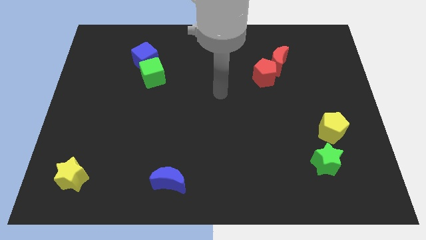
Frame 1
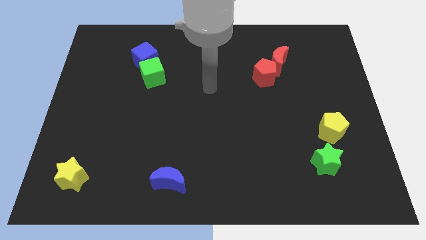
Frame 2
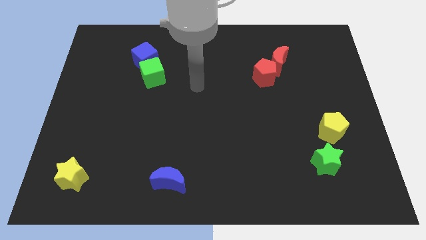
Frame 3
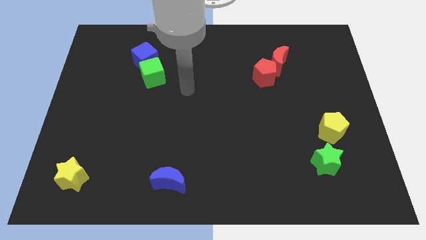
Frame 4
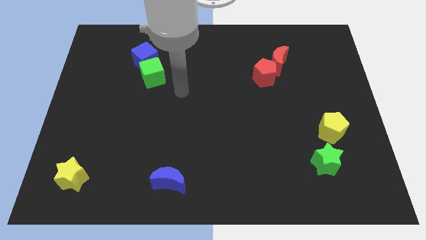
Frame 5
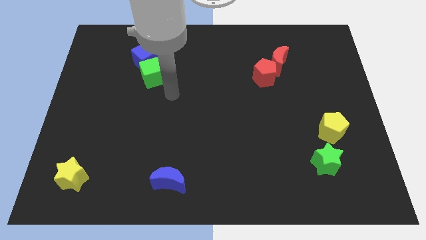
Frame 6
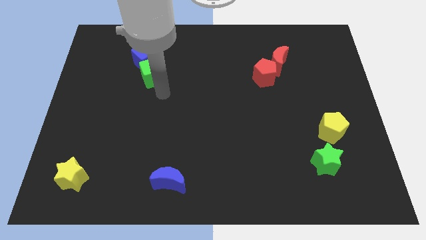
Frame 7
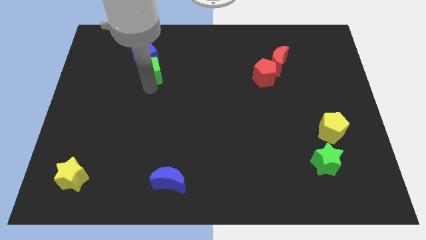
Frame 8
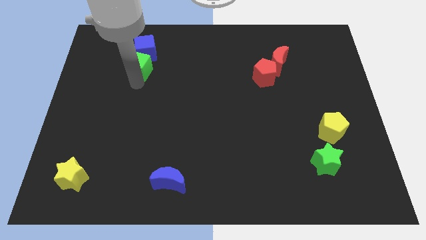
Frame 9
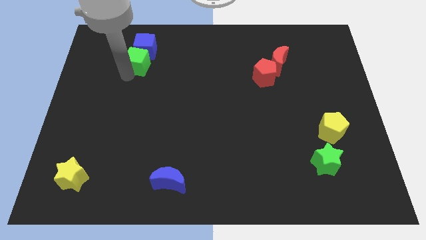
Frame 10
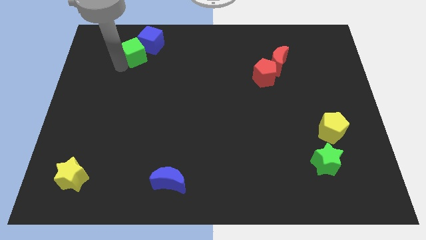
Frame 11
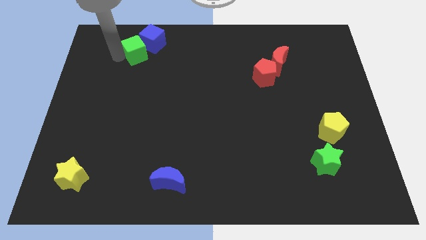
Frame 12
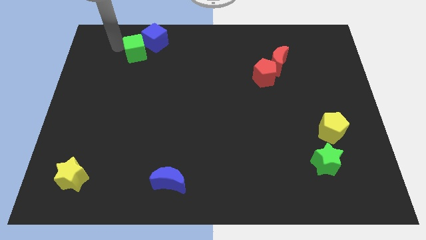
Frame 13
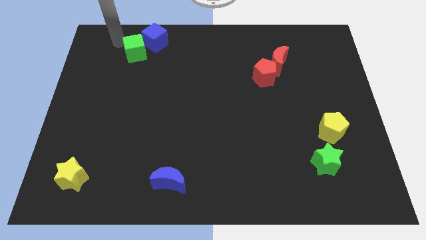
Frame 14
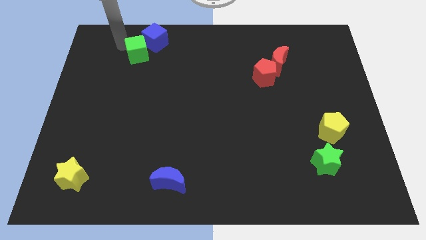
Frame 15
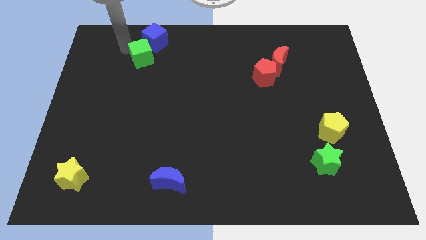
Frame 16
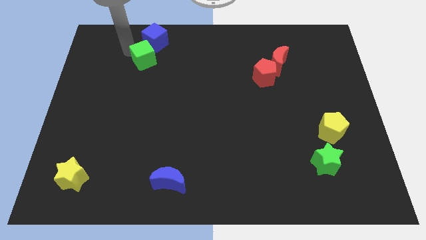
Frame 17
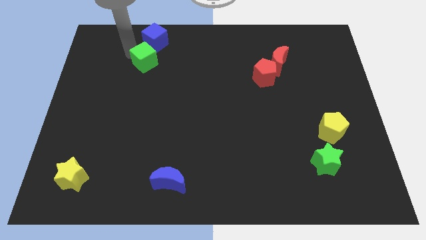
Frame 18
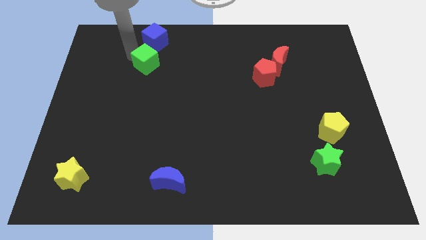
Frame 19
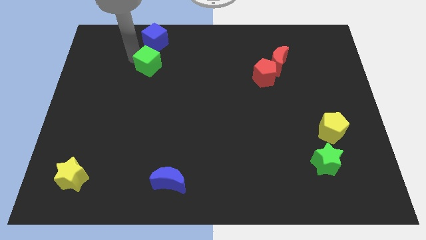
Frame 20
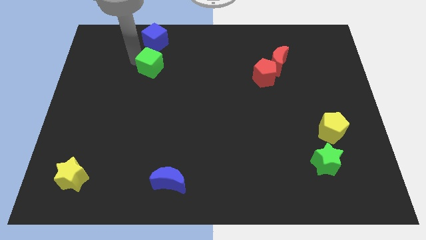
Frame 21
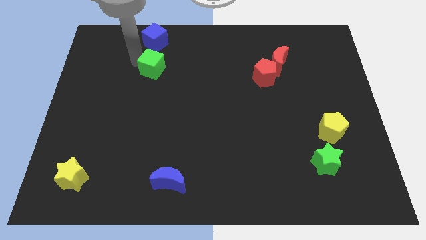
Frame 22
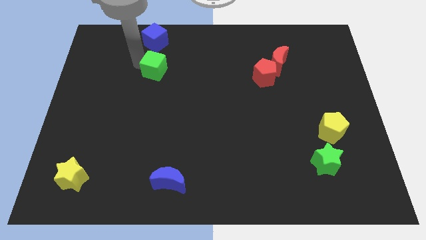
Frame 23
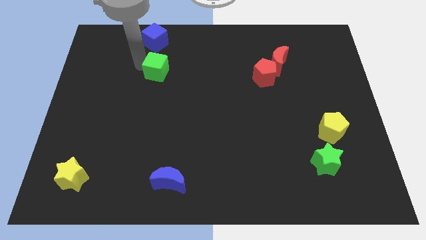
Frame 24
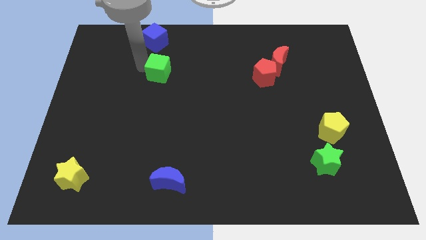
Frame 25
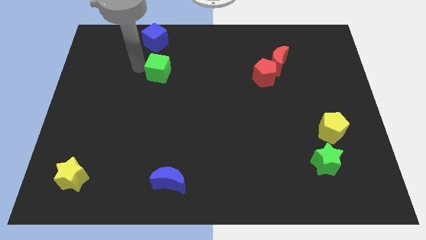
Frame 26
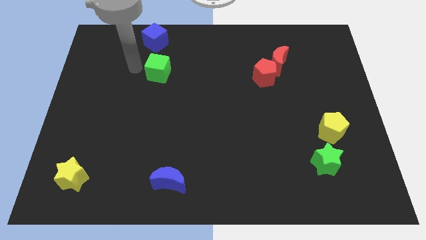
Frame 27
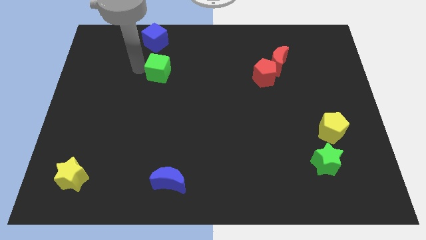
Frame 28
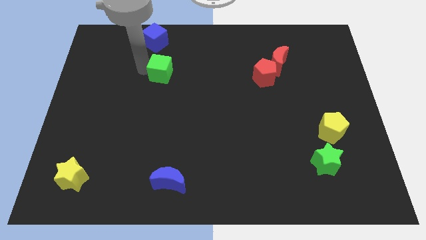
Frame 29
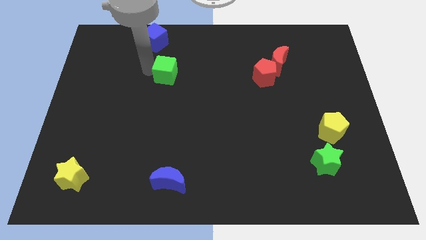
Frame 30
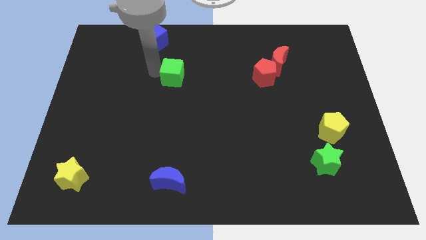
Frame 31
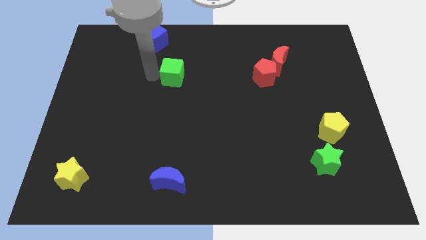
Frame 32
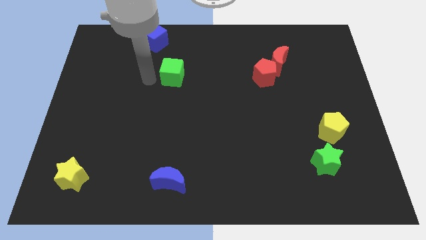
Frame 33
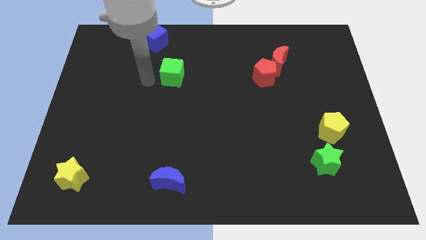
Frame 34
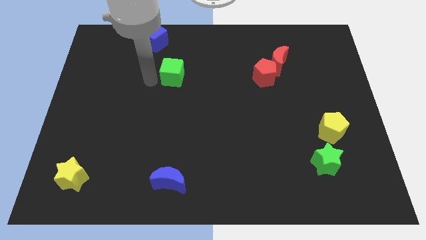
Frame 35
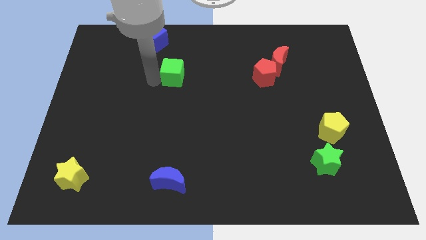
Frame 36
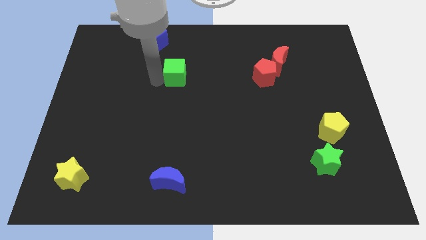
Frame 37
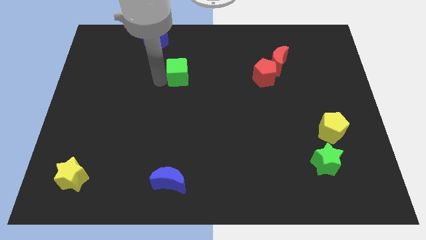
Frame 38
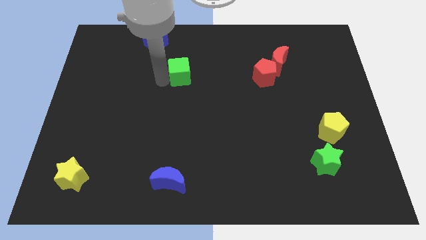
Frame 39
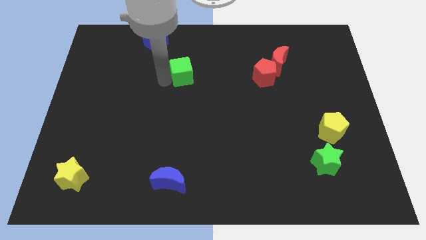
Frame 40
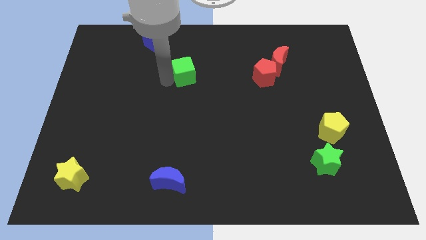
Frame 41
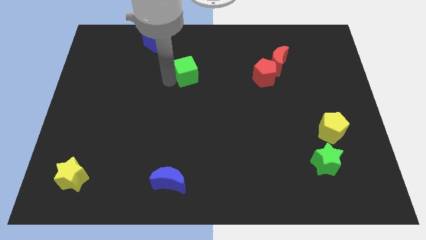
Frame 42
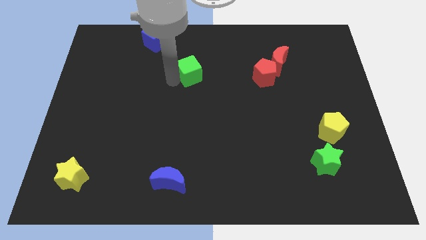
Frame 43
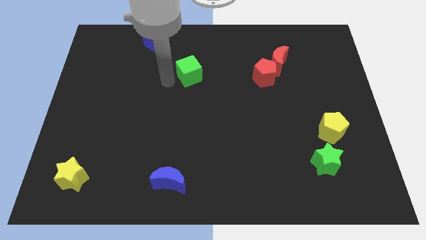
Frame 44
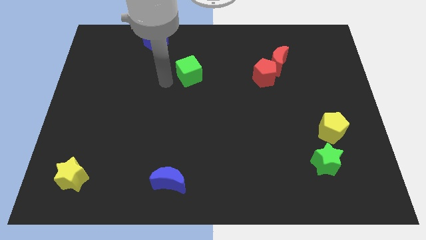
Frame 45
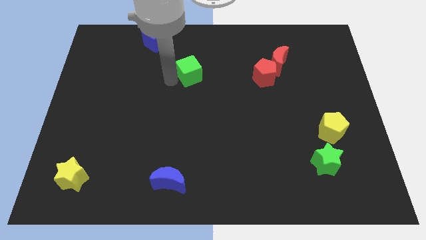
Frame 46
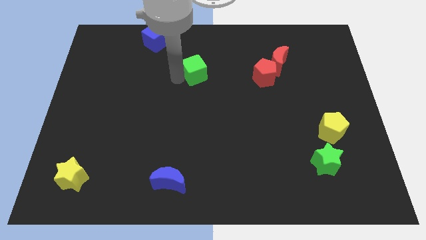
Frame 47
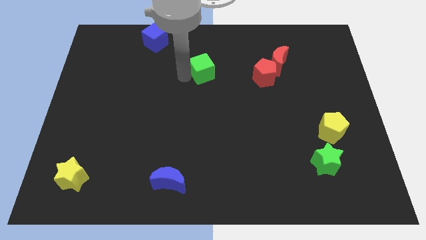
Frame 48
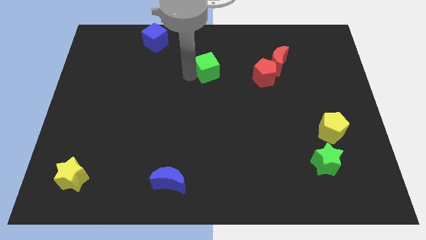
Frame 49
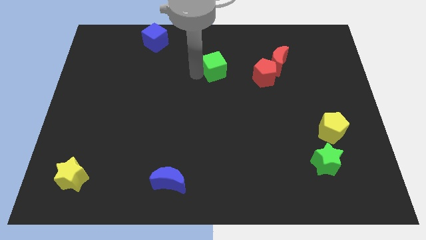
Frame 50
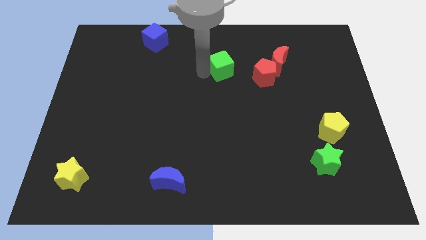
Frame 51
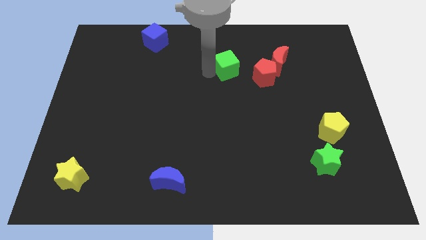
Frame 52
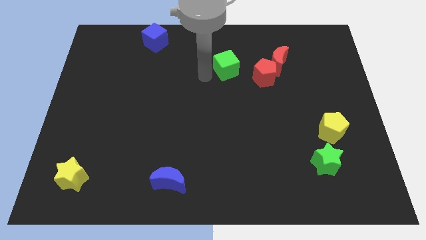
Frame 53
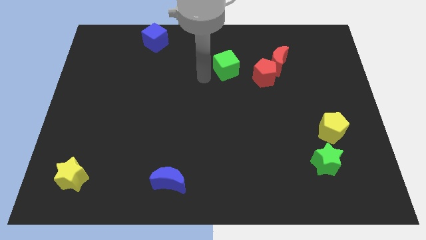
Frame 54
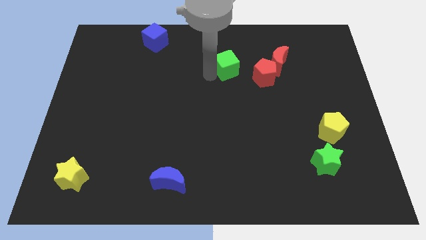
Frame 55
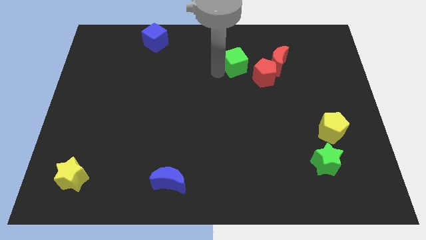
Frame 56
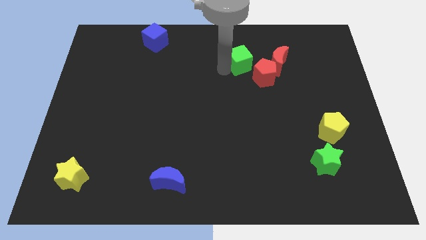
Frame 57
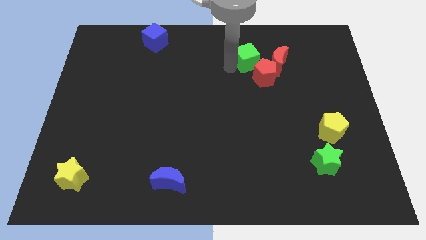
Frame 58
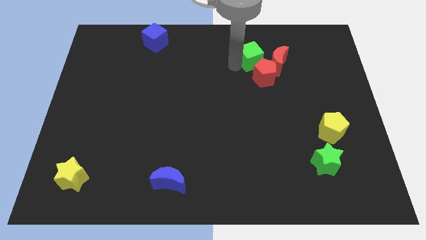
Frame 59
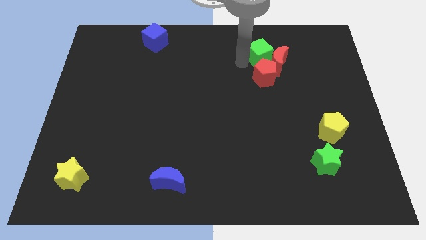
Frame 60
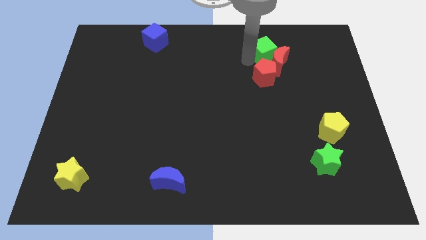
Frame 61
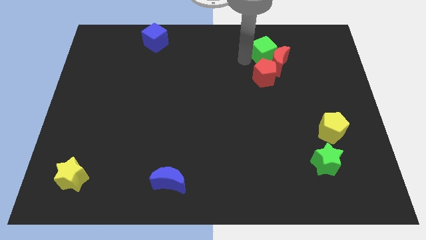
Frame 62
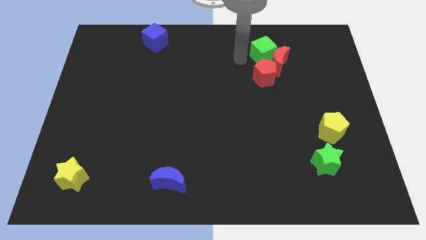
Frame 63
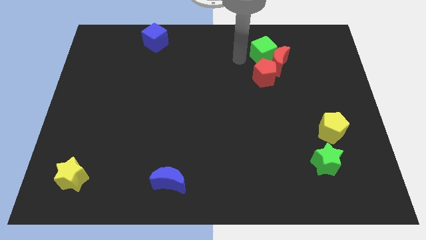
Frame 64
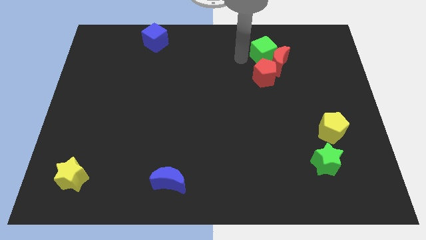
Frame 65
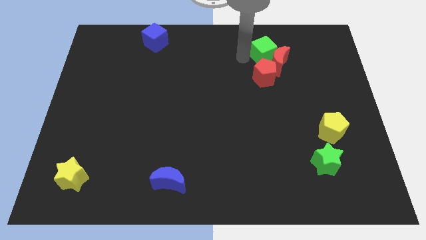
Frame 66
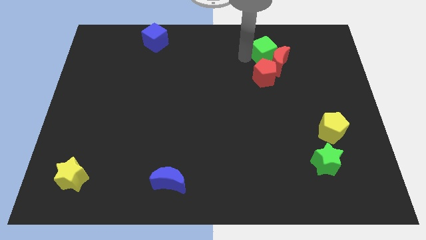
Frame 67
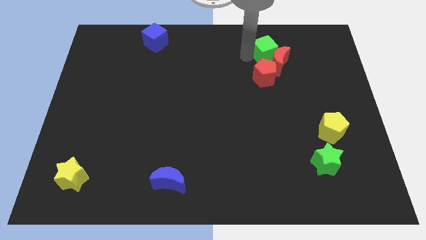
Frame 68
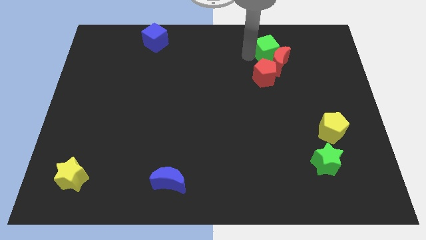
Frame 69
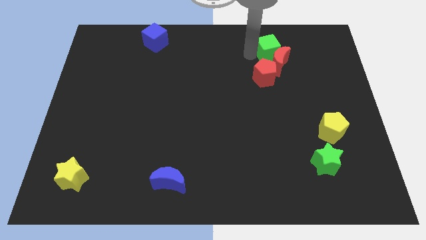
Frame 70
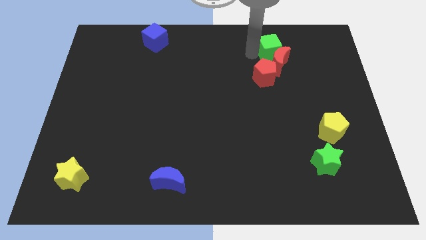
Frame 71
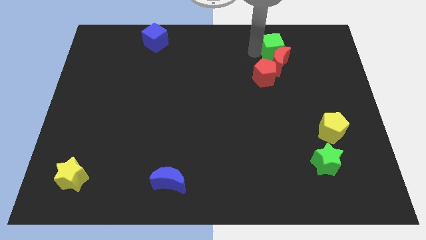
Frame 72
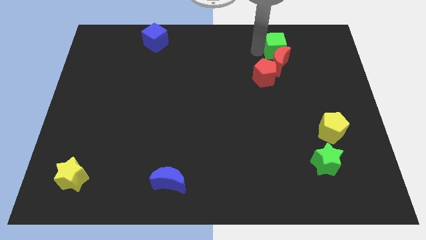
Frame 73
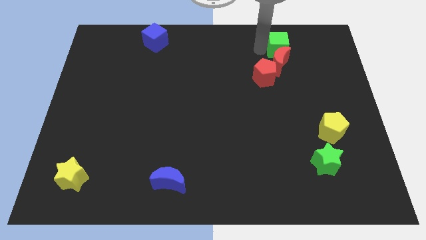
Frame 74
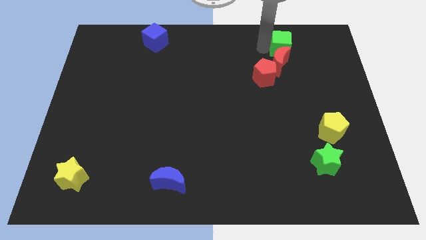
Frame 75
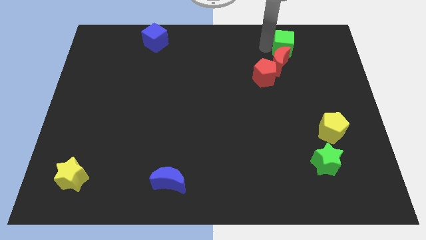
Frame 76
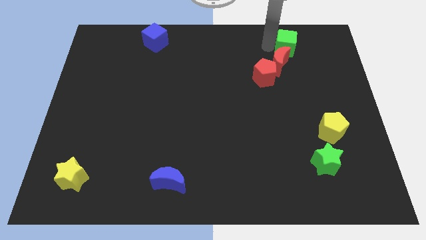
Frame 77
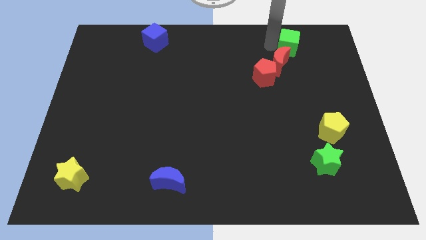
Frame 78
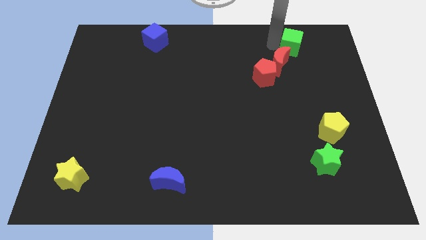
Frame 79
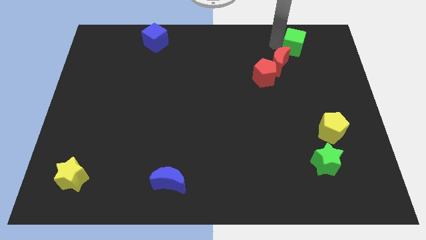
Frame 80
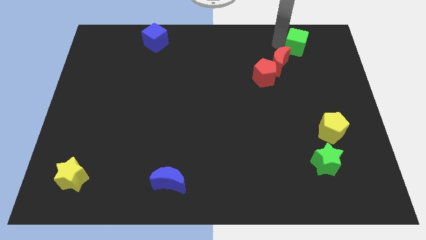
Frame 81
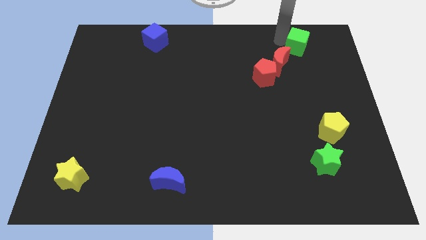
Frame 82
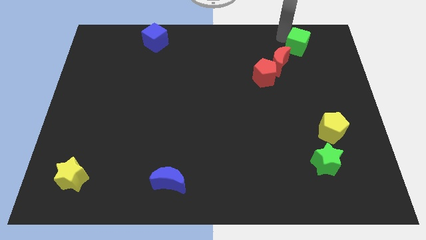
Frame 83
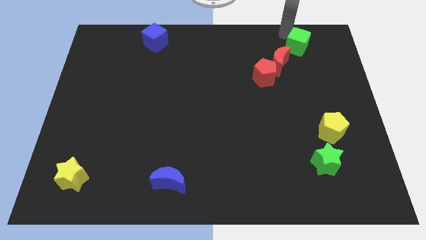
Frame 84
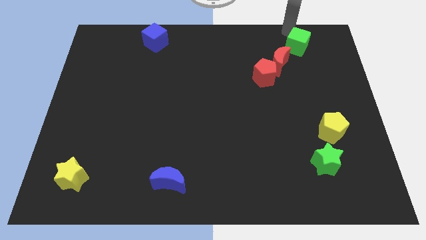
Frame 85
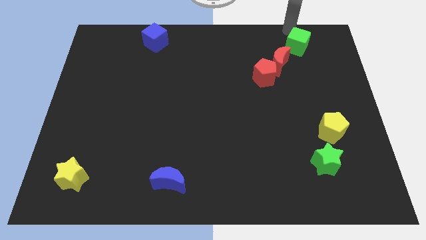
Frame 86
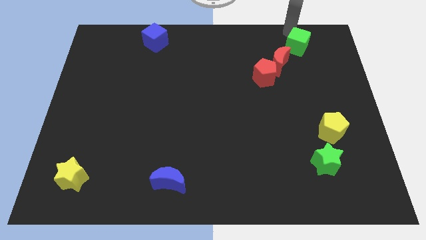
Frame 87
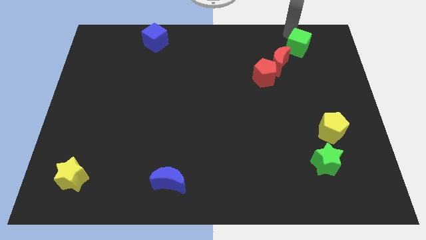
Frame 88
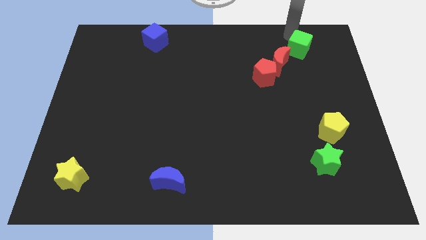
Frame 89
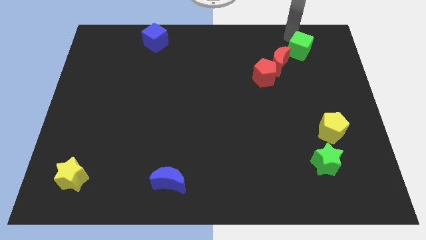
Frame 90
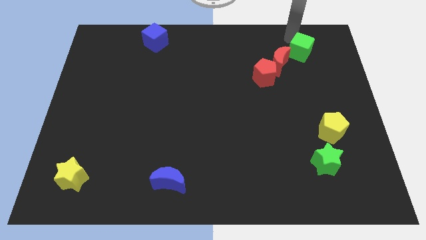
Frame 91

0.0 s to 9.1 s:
slide the green cube just right of the red moon
